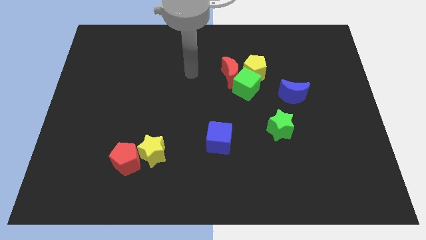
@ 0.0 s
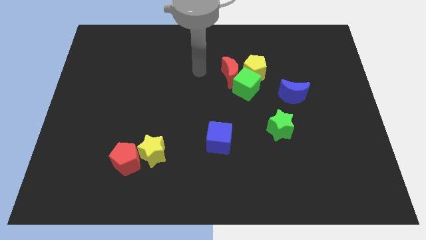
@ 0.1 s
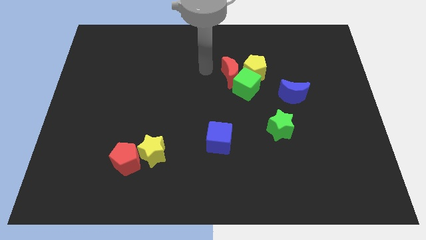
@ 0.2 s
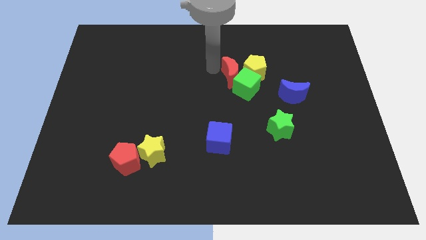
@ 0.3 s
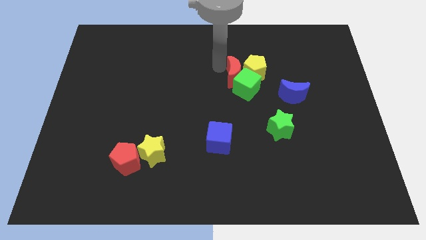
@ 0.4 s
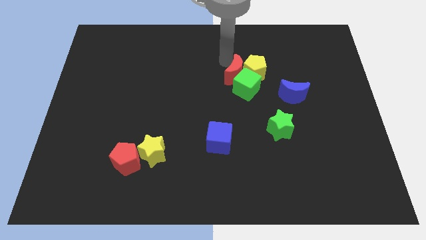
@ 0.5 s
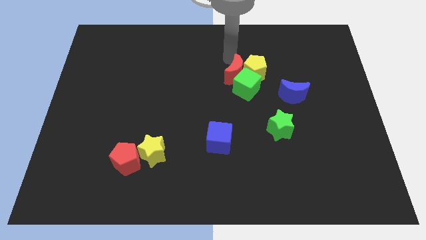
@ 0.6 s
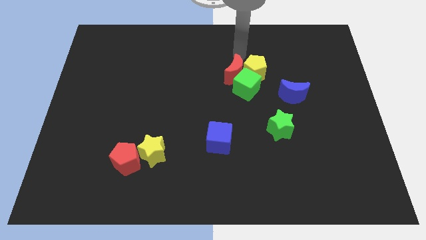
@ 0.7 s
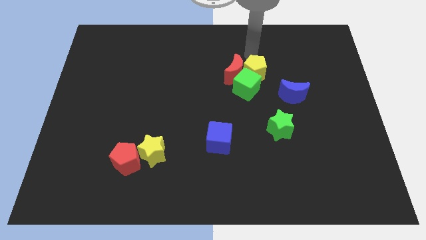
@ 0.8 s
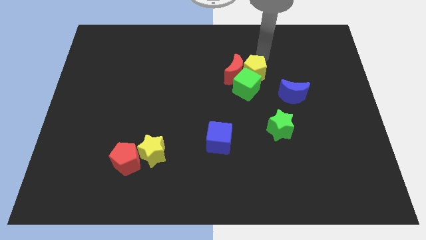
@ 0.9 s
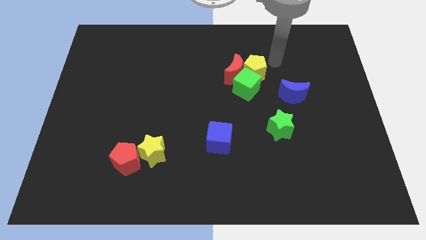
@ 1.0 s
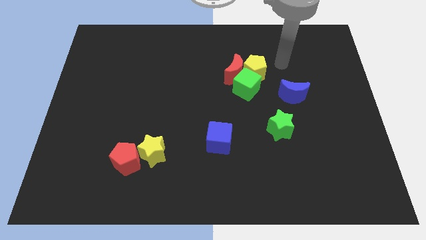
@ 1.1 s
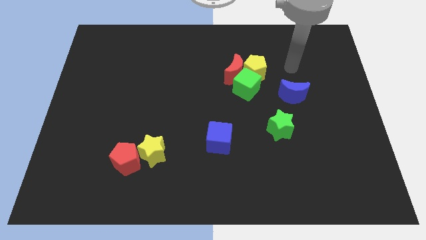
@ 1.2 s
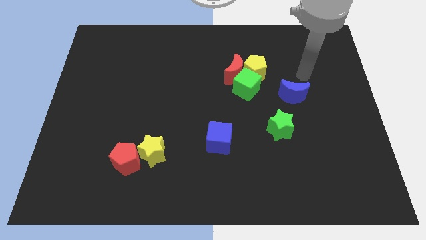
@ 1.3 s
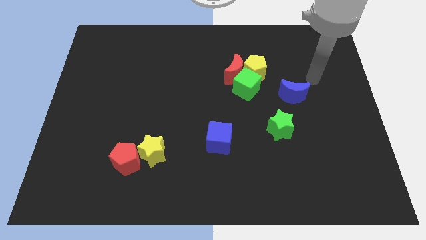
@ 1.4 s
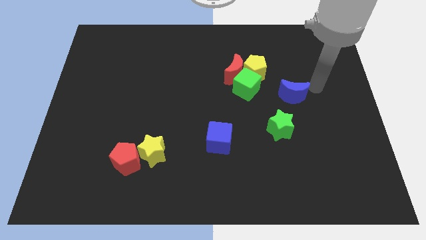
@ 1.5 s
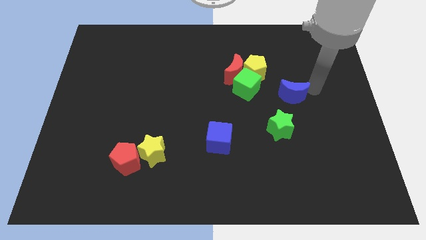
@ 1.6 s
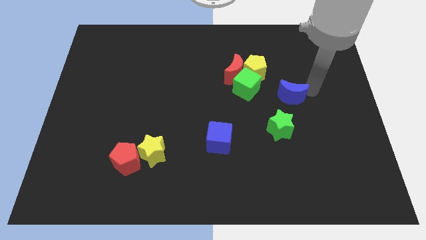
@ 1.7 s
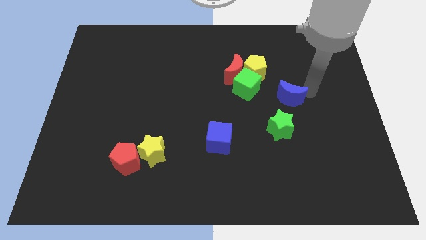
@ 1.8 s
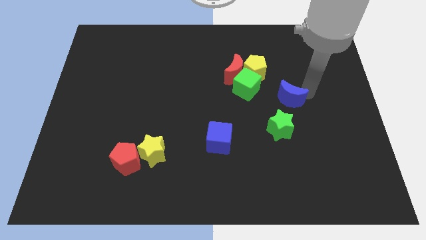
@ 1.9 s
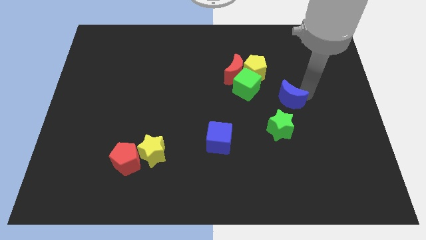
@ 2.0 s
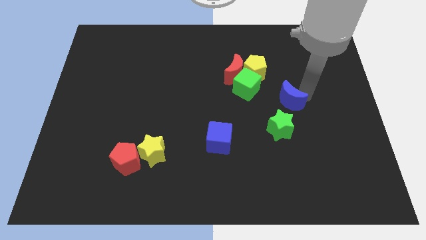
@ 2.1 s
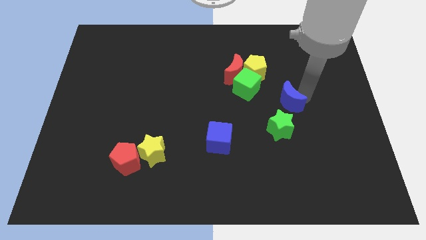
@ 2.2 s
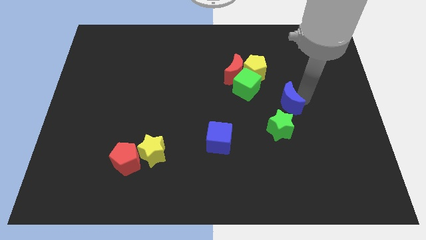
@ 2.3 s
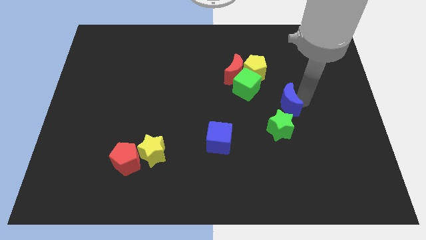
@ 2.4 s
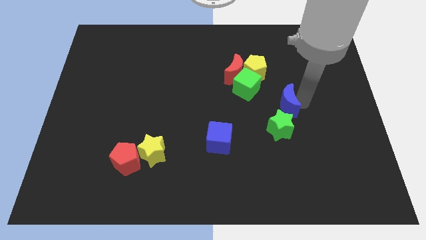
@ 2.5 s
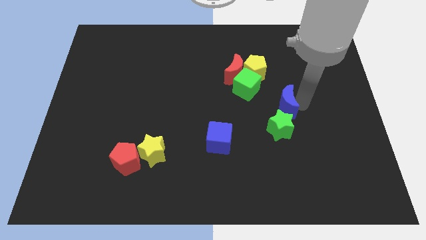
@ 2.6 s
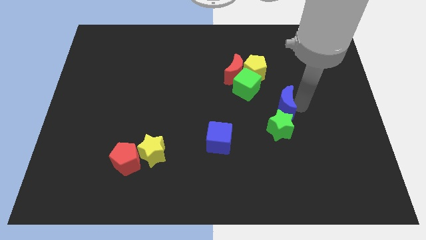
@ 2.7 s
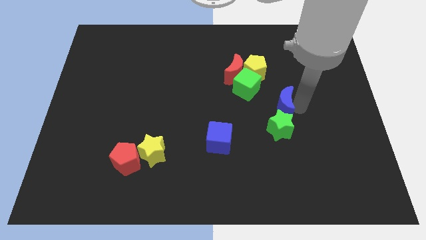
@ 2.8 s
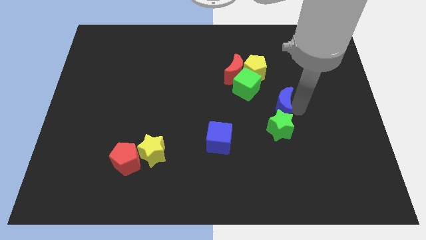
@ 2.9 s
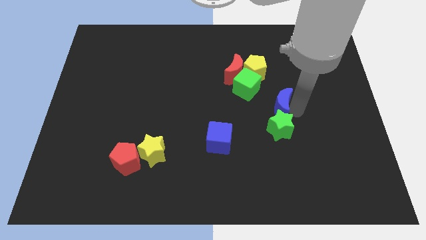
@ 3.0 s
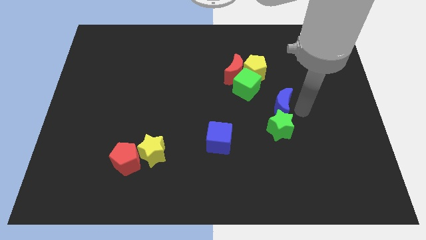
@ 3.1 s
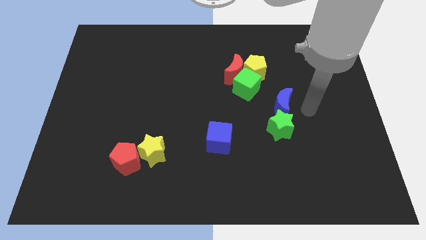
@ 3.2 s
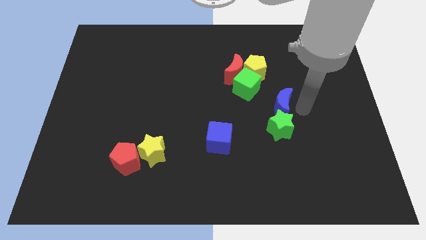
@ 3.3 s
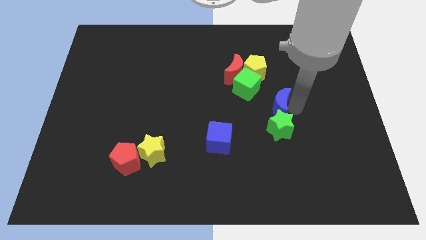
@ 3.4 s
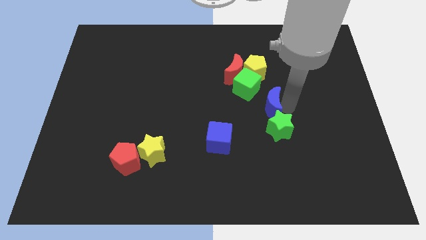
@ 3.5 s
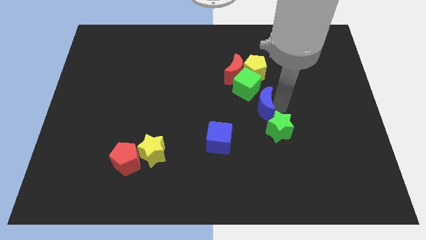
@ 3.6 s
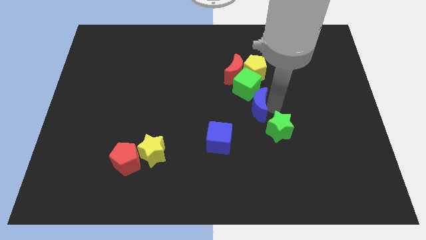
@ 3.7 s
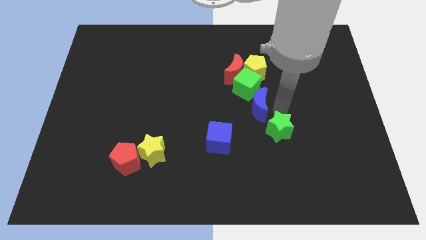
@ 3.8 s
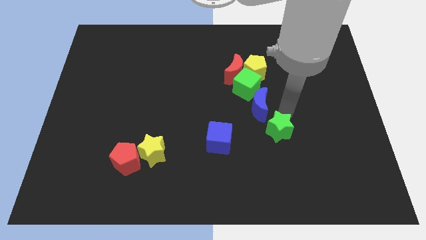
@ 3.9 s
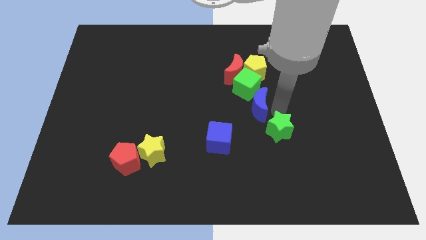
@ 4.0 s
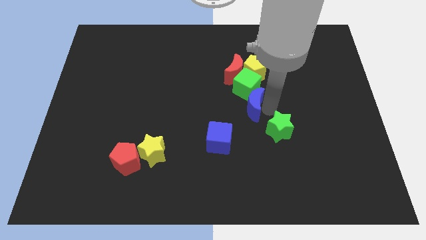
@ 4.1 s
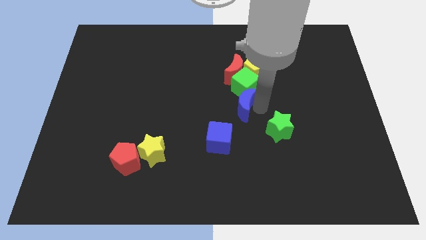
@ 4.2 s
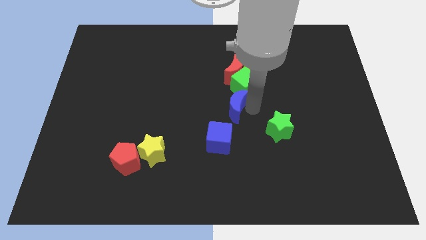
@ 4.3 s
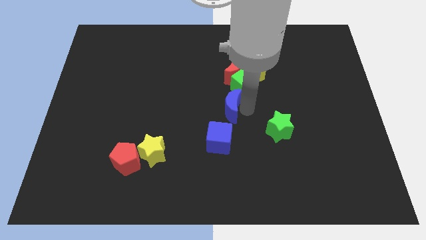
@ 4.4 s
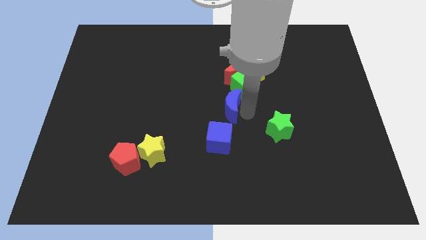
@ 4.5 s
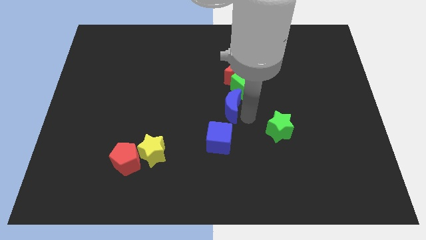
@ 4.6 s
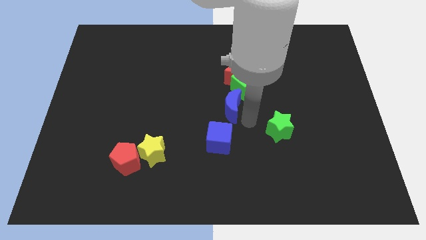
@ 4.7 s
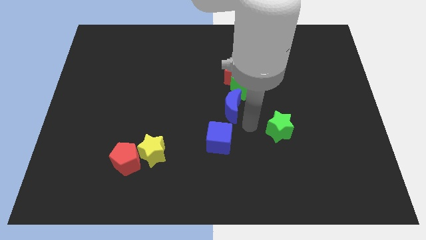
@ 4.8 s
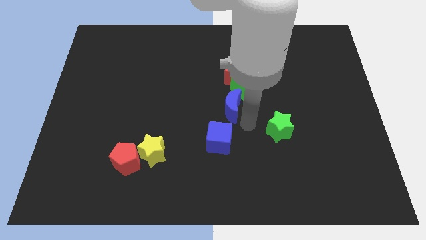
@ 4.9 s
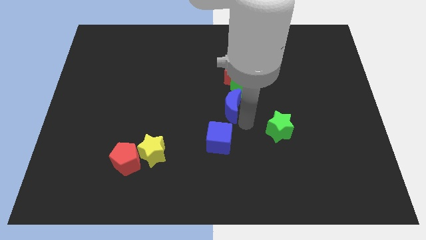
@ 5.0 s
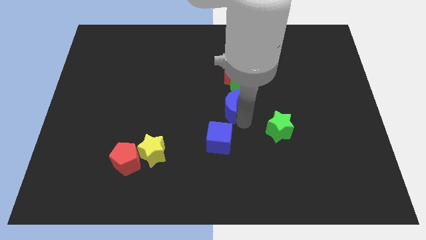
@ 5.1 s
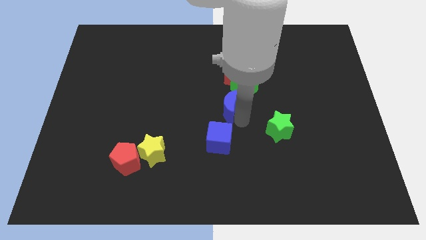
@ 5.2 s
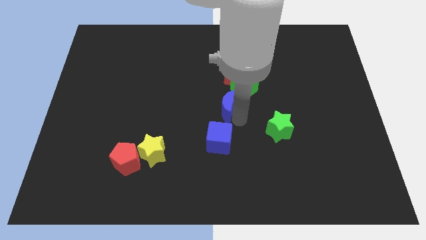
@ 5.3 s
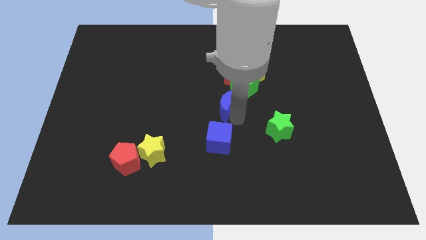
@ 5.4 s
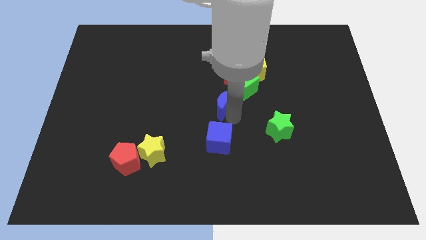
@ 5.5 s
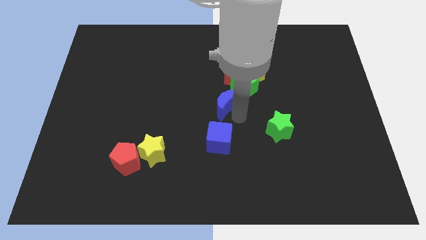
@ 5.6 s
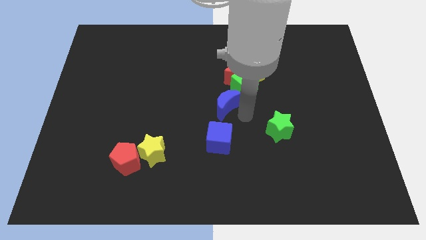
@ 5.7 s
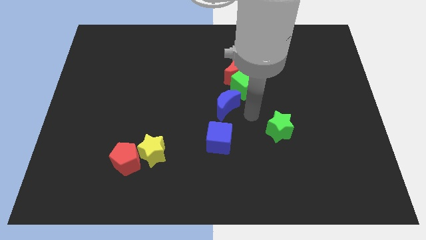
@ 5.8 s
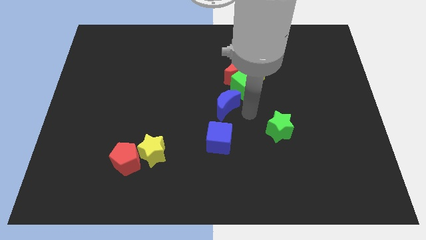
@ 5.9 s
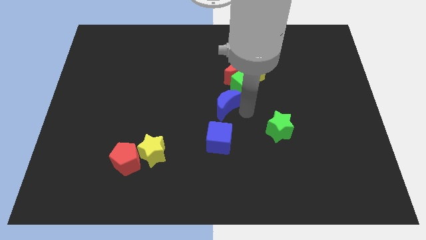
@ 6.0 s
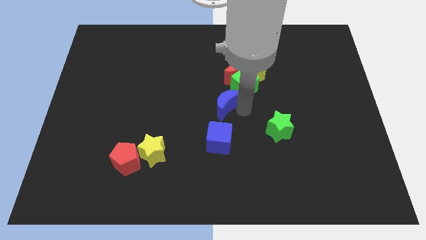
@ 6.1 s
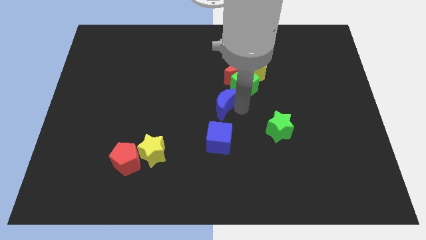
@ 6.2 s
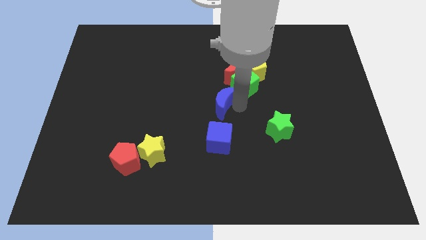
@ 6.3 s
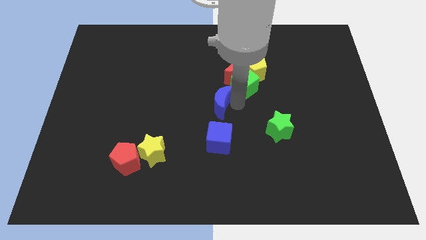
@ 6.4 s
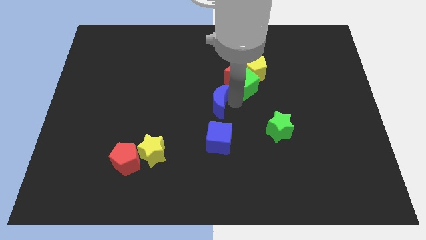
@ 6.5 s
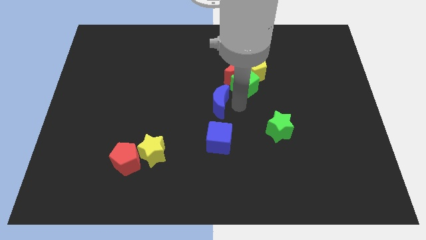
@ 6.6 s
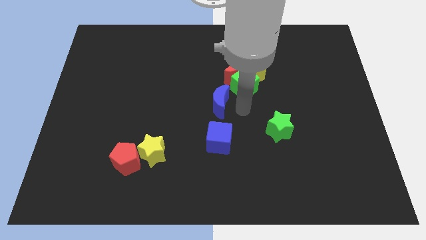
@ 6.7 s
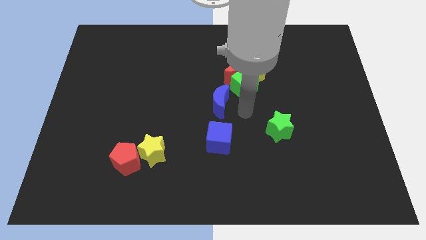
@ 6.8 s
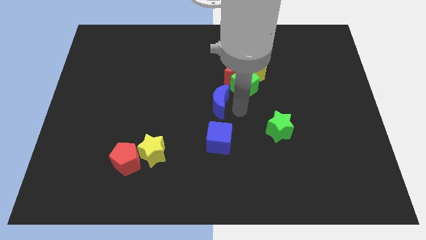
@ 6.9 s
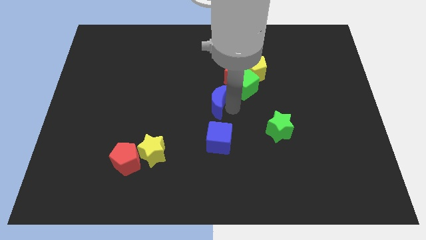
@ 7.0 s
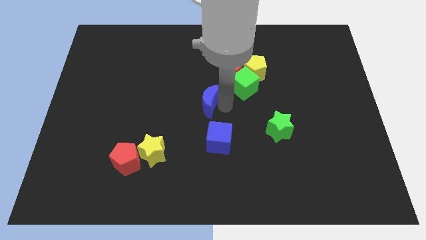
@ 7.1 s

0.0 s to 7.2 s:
push the blue moon left

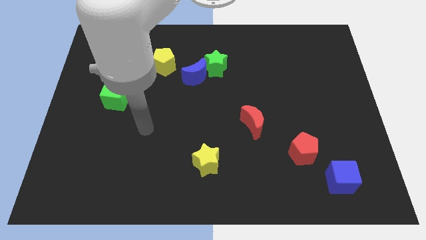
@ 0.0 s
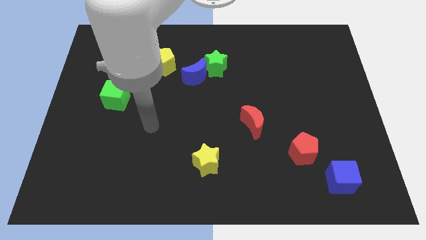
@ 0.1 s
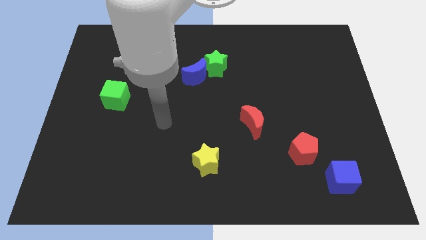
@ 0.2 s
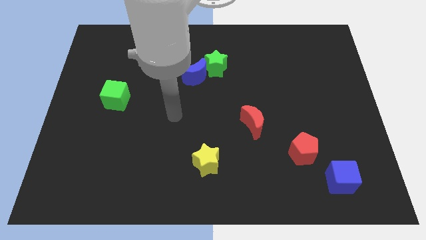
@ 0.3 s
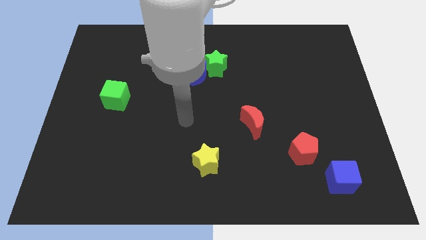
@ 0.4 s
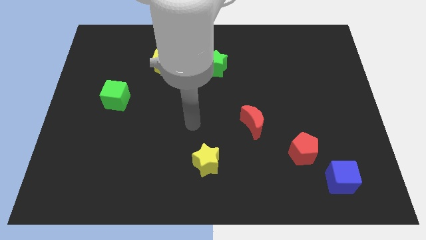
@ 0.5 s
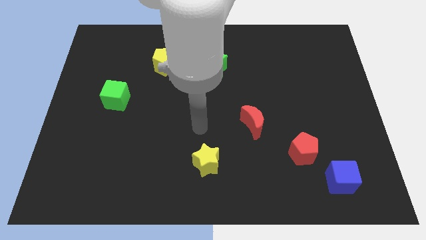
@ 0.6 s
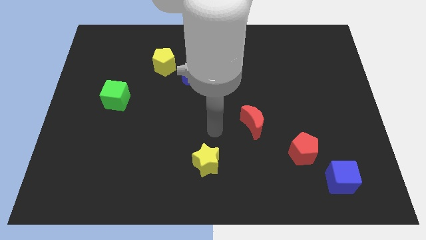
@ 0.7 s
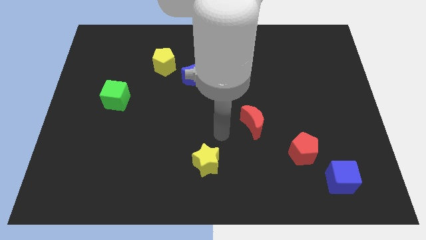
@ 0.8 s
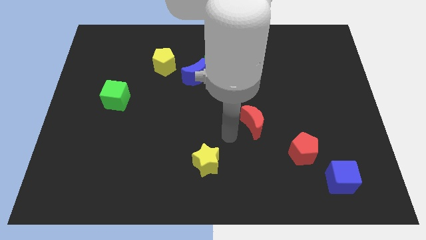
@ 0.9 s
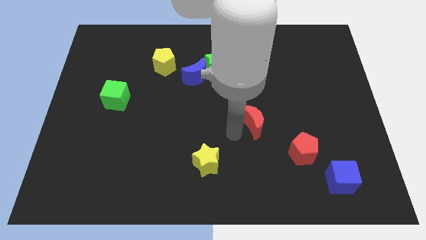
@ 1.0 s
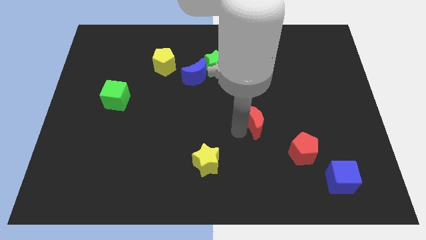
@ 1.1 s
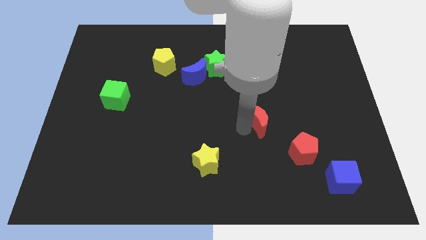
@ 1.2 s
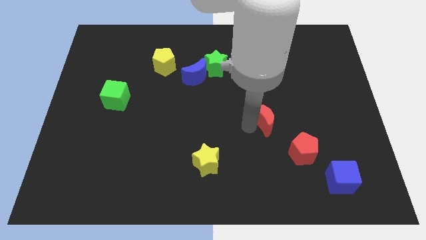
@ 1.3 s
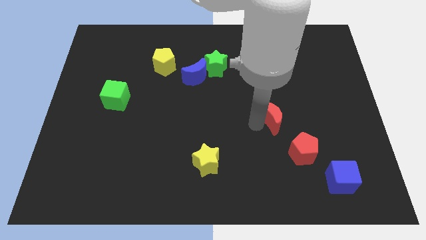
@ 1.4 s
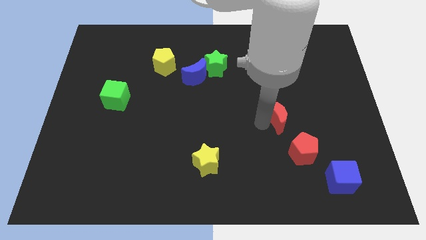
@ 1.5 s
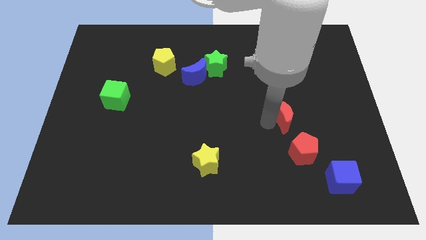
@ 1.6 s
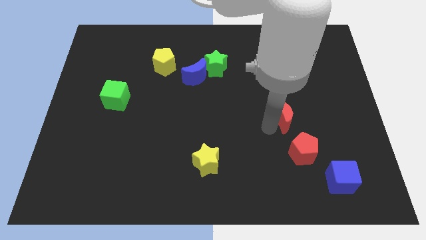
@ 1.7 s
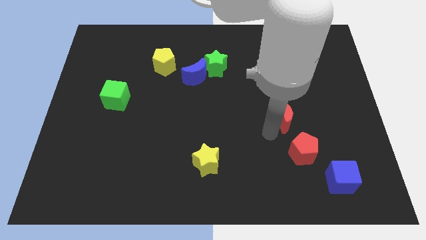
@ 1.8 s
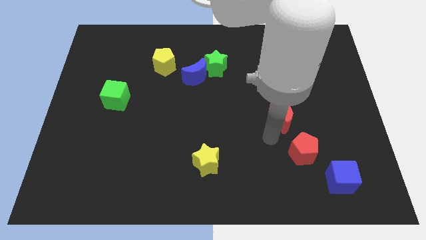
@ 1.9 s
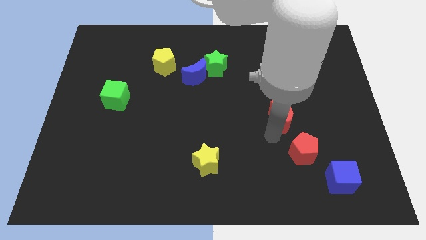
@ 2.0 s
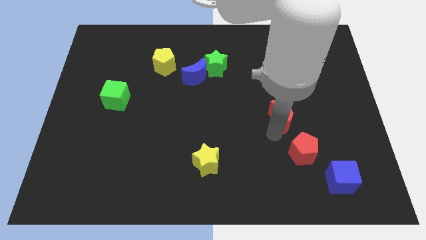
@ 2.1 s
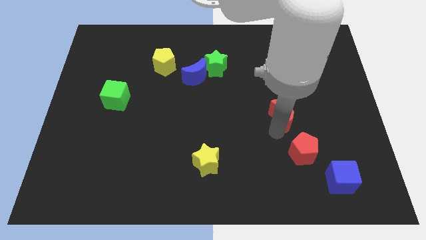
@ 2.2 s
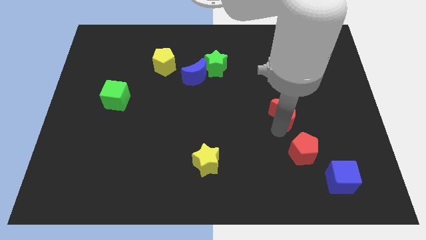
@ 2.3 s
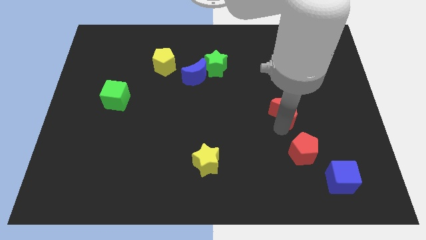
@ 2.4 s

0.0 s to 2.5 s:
slightly push the red moon diagonally up and to the right
